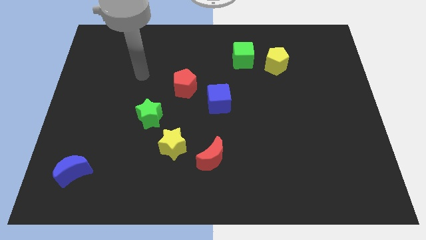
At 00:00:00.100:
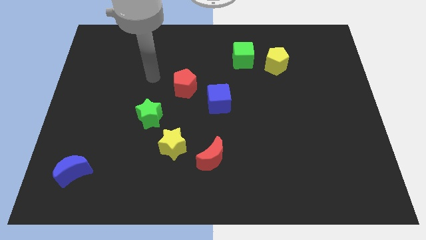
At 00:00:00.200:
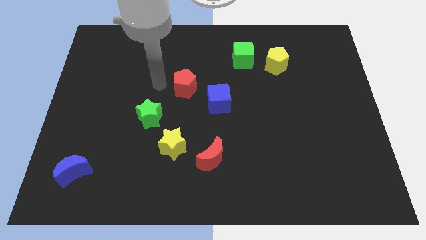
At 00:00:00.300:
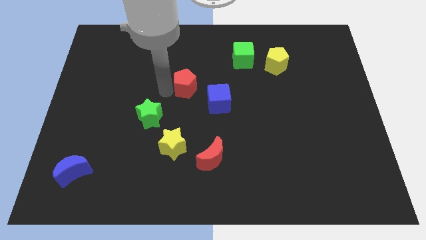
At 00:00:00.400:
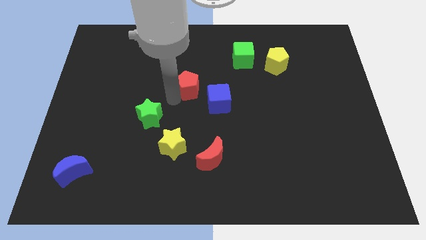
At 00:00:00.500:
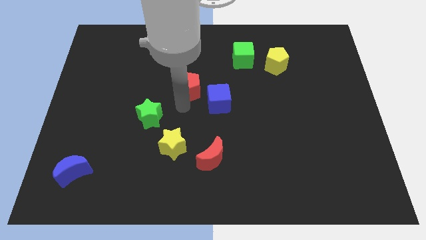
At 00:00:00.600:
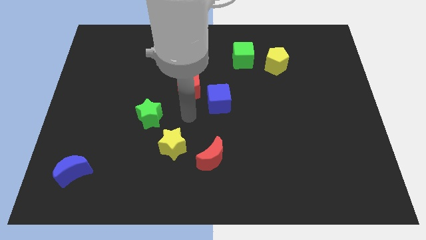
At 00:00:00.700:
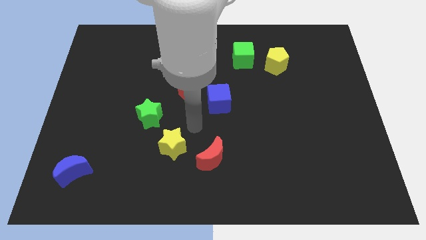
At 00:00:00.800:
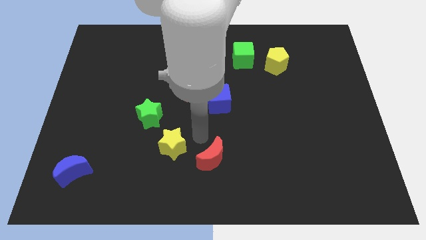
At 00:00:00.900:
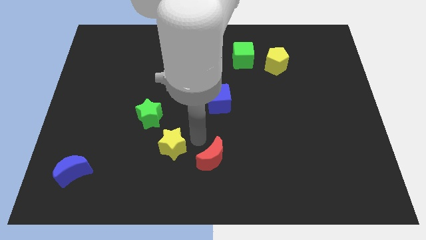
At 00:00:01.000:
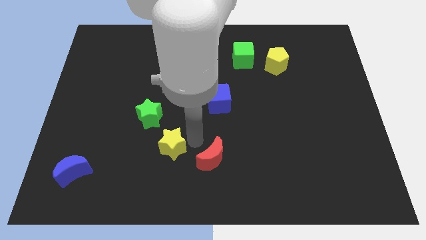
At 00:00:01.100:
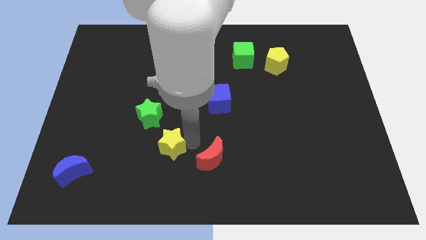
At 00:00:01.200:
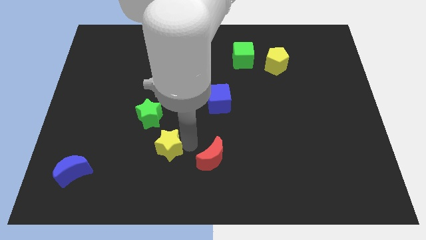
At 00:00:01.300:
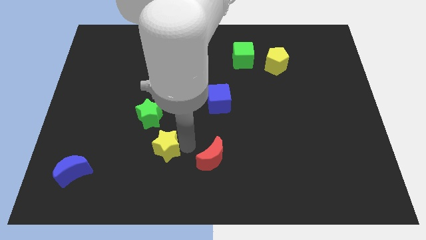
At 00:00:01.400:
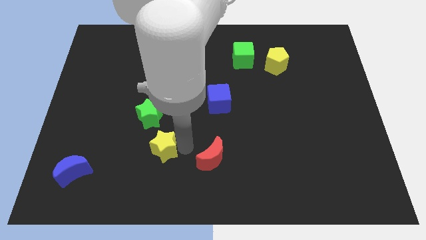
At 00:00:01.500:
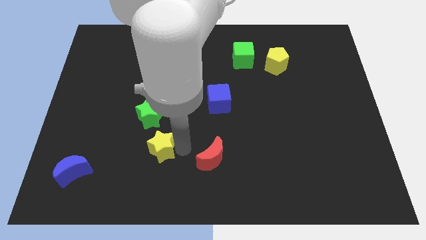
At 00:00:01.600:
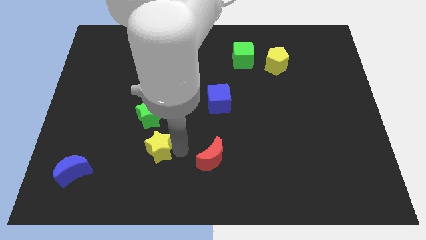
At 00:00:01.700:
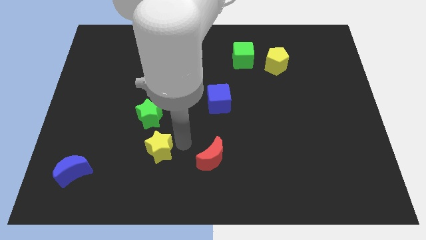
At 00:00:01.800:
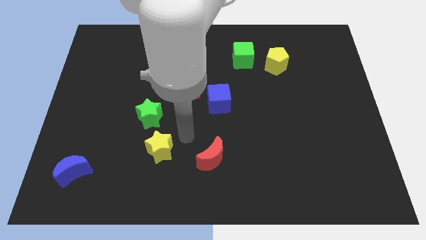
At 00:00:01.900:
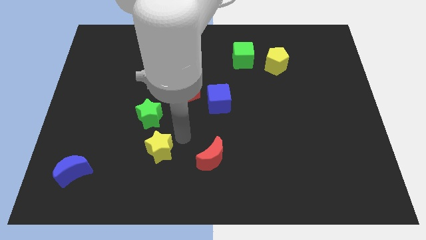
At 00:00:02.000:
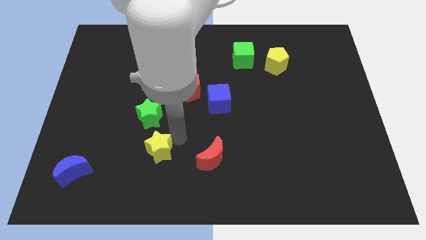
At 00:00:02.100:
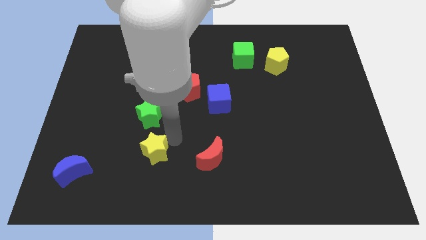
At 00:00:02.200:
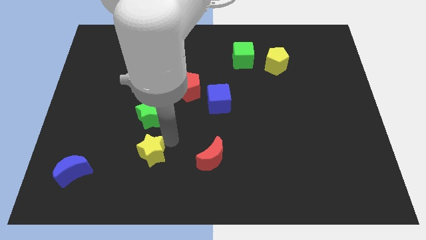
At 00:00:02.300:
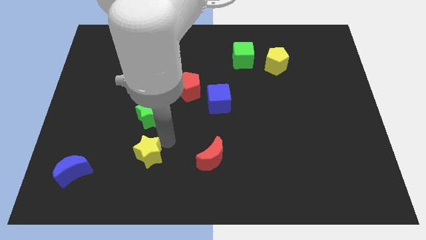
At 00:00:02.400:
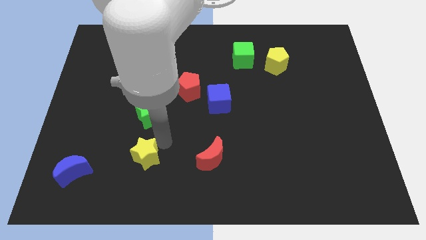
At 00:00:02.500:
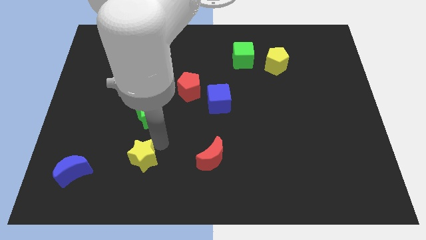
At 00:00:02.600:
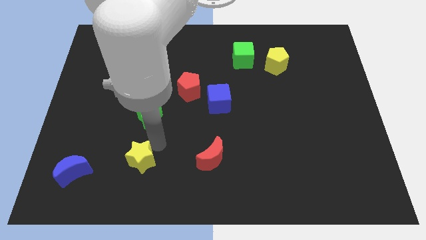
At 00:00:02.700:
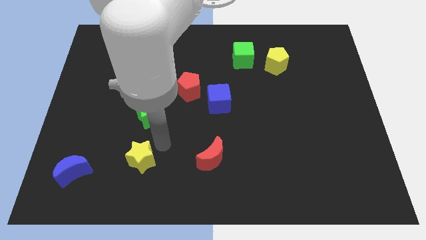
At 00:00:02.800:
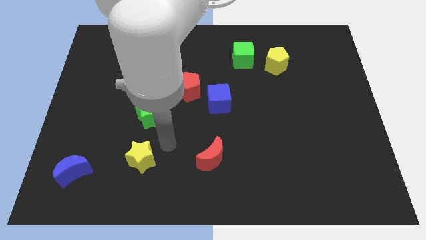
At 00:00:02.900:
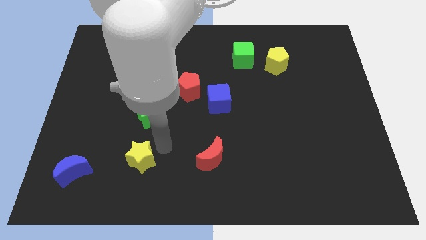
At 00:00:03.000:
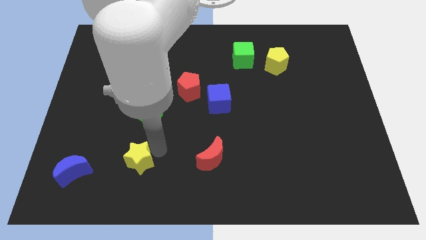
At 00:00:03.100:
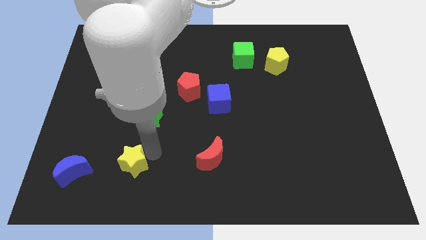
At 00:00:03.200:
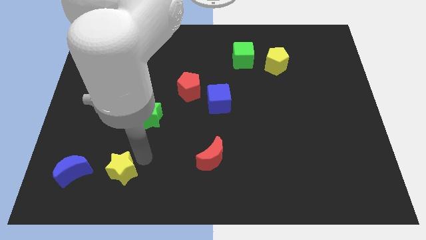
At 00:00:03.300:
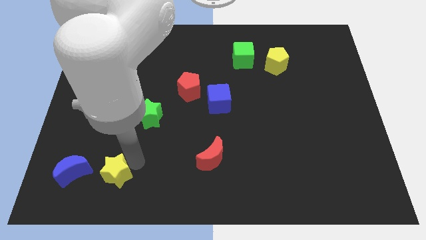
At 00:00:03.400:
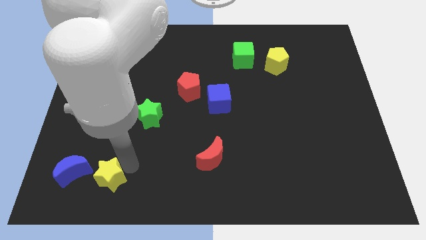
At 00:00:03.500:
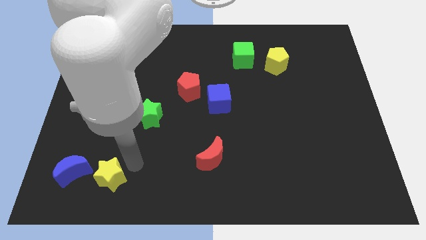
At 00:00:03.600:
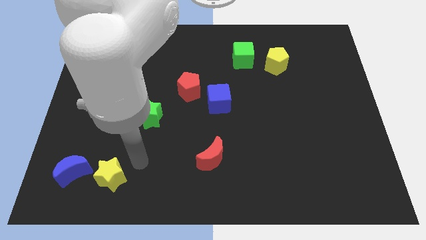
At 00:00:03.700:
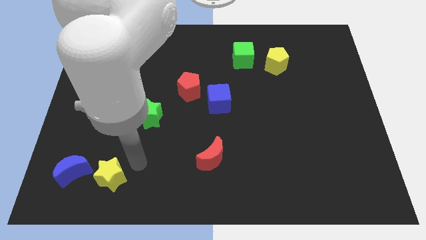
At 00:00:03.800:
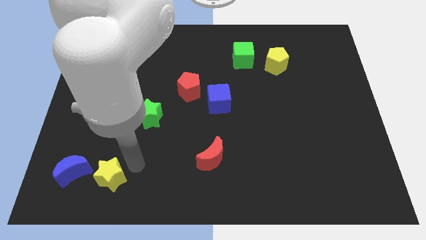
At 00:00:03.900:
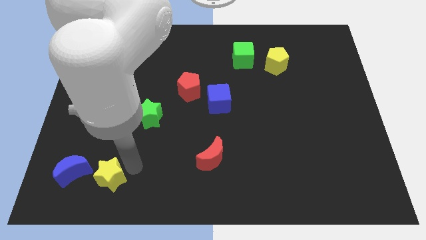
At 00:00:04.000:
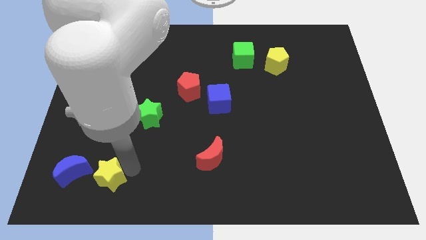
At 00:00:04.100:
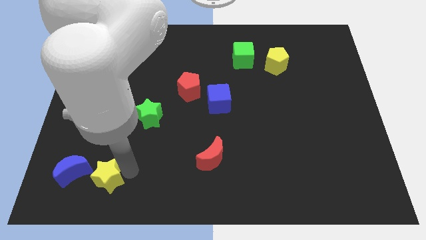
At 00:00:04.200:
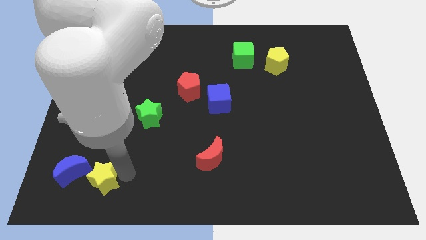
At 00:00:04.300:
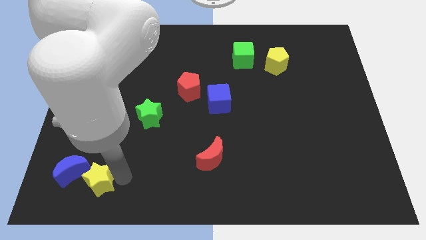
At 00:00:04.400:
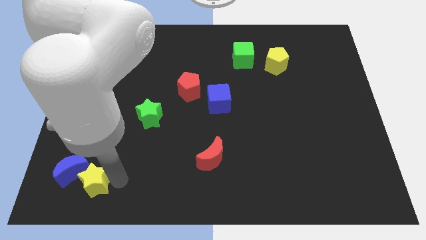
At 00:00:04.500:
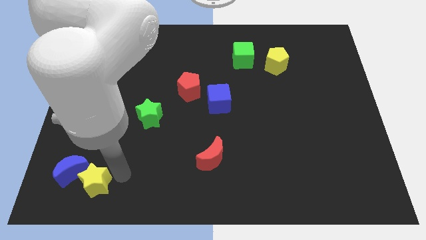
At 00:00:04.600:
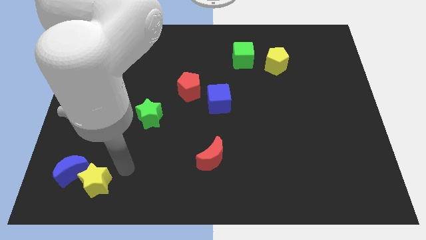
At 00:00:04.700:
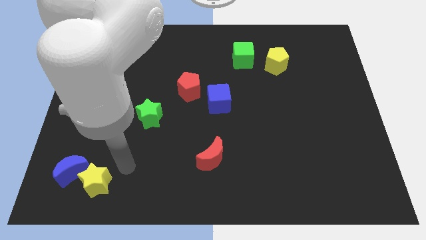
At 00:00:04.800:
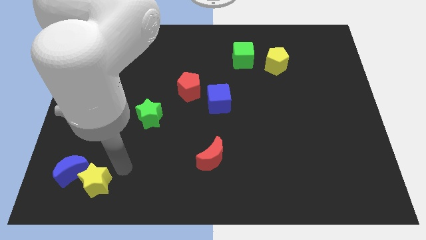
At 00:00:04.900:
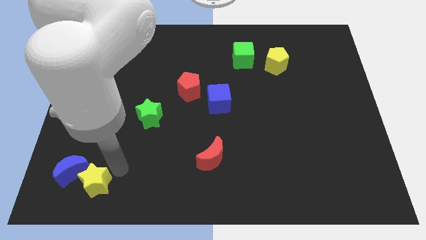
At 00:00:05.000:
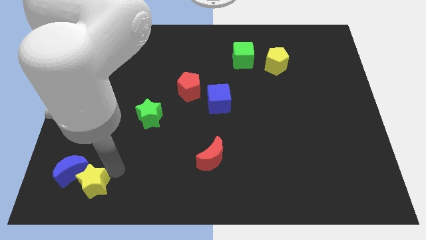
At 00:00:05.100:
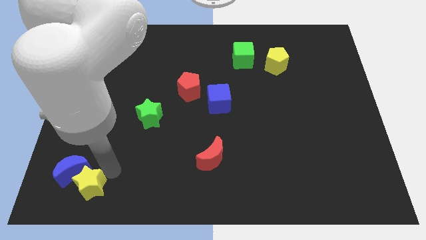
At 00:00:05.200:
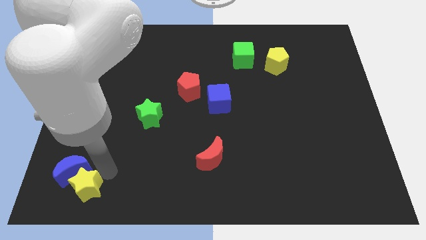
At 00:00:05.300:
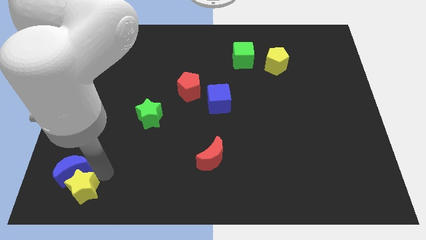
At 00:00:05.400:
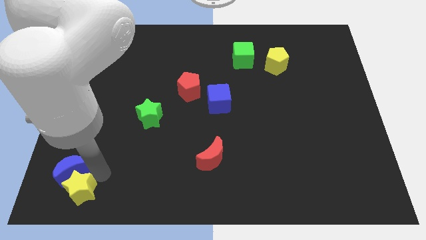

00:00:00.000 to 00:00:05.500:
put the yellow star to the bottom left corner

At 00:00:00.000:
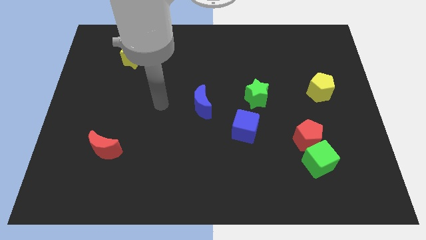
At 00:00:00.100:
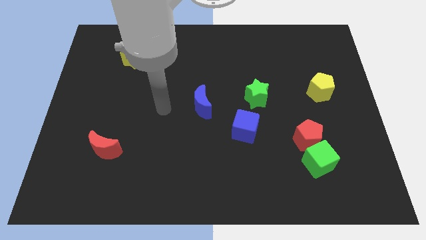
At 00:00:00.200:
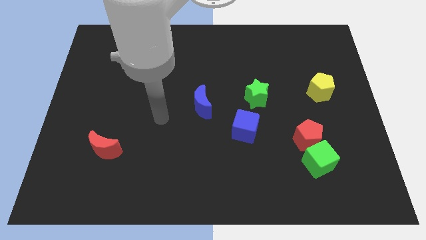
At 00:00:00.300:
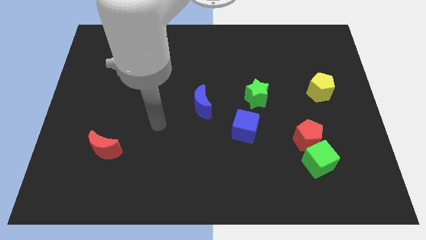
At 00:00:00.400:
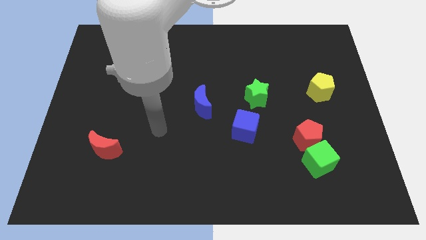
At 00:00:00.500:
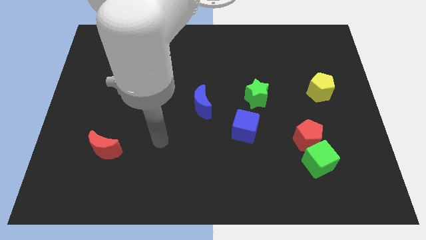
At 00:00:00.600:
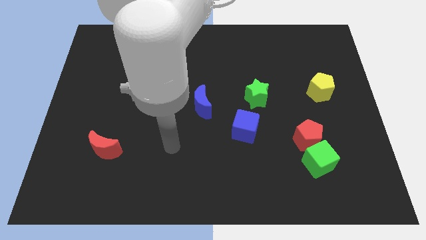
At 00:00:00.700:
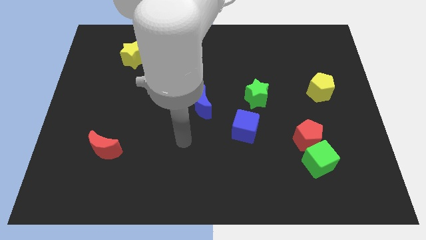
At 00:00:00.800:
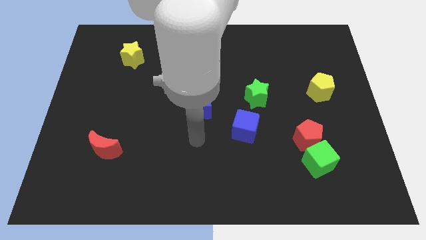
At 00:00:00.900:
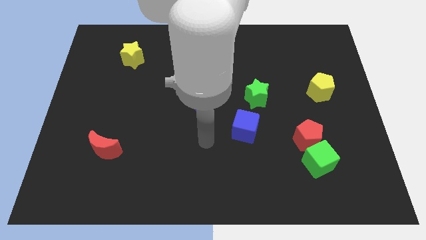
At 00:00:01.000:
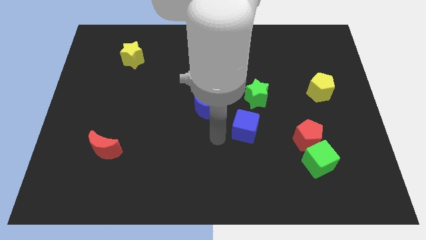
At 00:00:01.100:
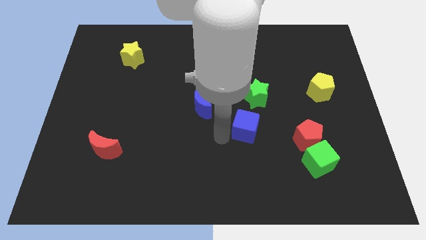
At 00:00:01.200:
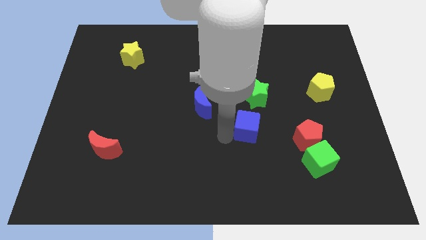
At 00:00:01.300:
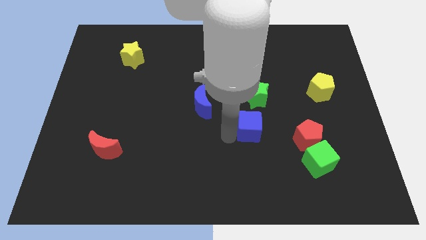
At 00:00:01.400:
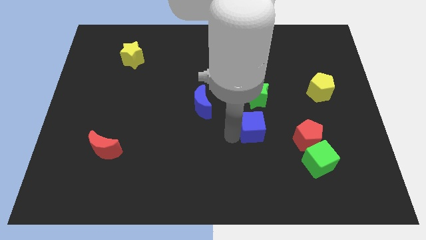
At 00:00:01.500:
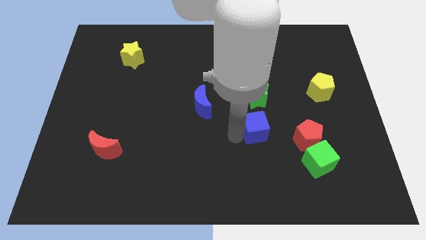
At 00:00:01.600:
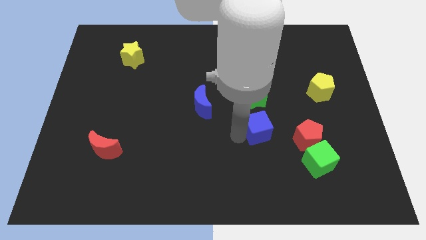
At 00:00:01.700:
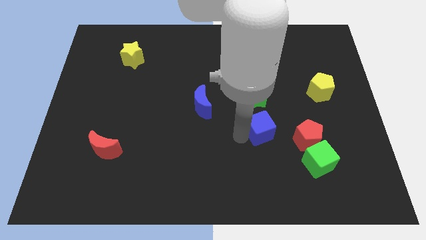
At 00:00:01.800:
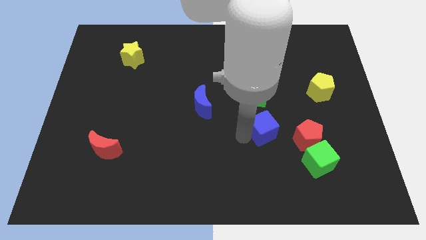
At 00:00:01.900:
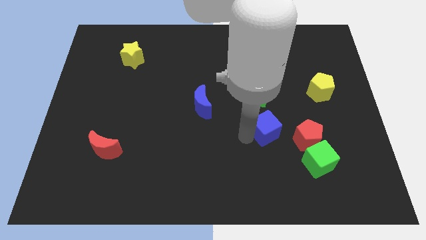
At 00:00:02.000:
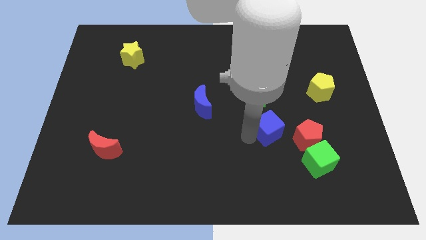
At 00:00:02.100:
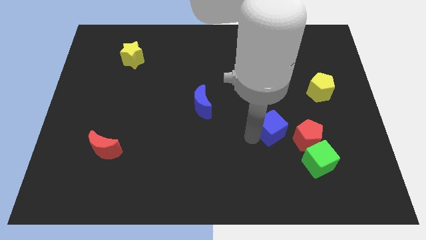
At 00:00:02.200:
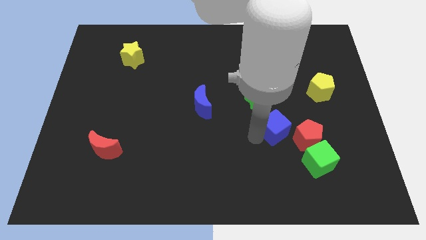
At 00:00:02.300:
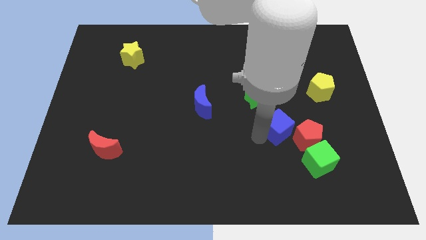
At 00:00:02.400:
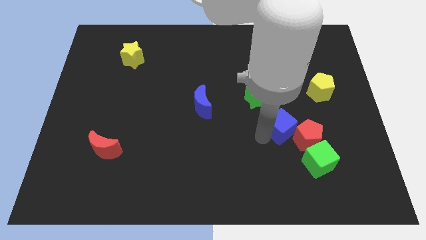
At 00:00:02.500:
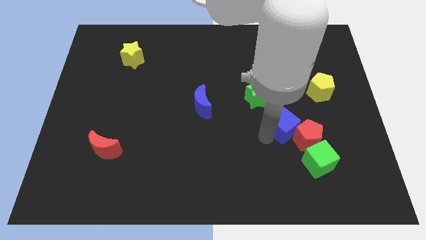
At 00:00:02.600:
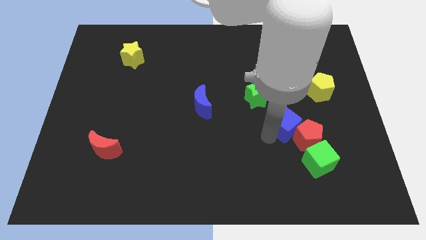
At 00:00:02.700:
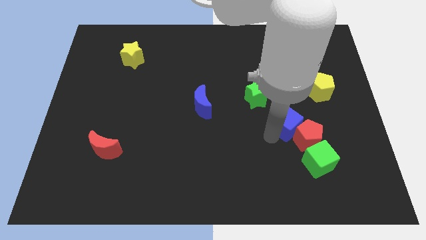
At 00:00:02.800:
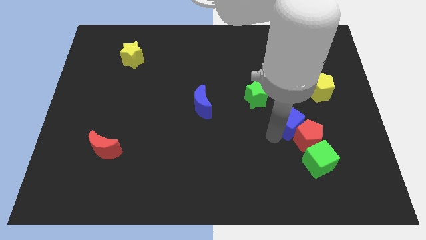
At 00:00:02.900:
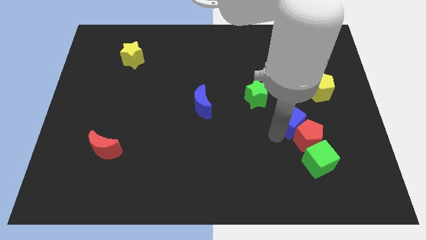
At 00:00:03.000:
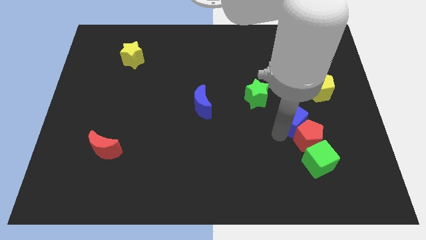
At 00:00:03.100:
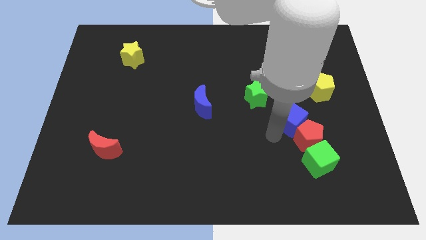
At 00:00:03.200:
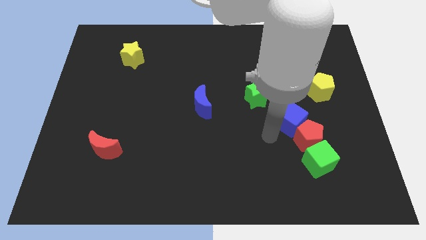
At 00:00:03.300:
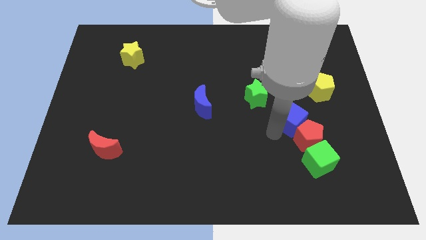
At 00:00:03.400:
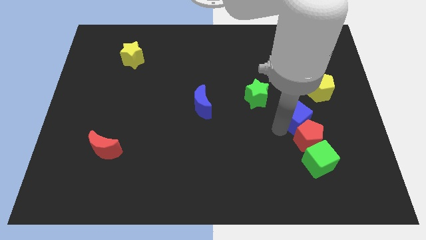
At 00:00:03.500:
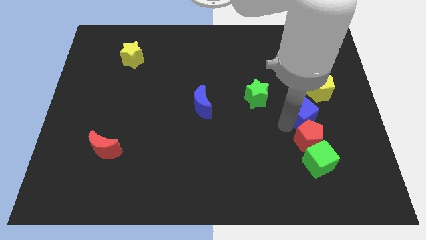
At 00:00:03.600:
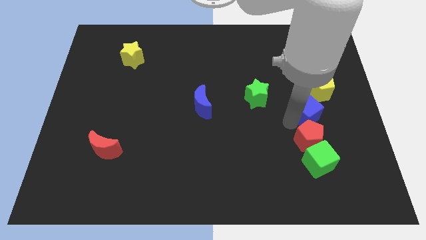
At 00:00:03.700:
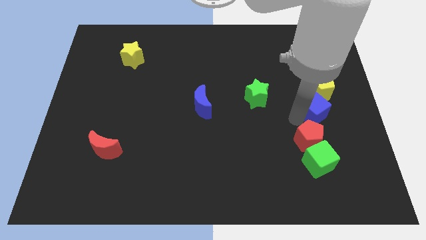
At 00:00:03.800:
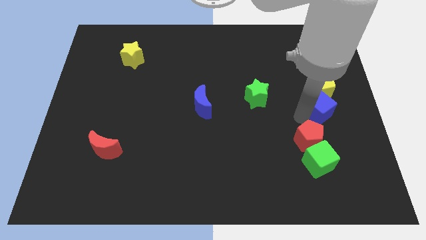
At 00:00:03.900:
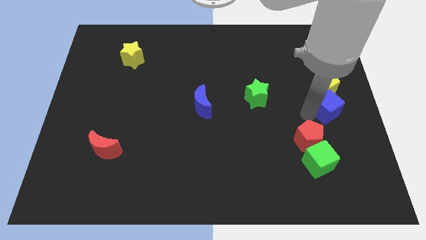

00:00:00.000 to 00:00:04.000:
move the blue cube to the center right
